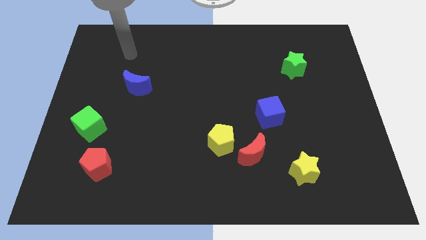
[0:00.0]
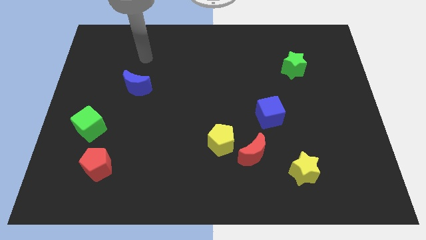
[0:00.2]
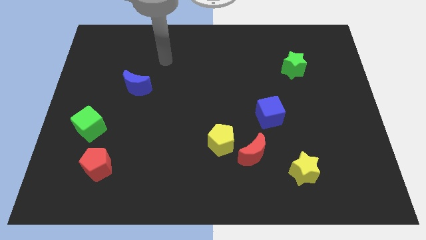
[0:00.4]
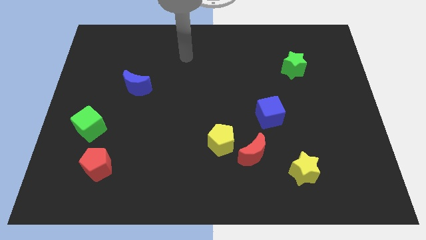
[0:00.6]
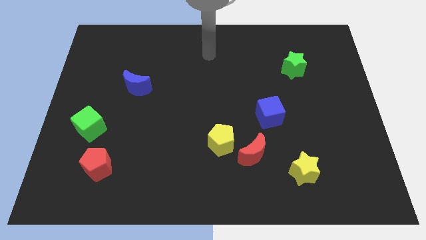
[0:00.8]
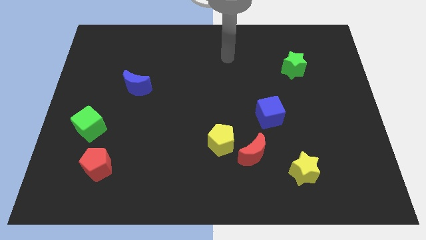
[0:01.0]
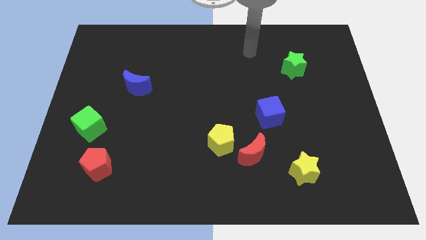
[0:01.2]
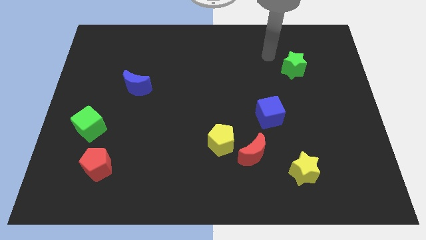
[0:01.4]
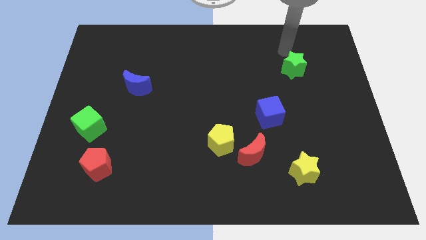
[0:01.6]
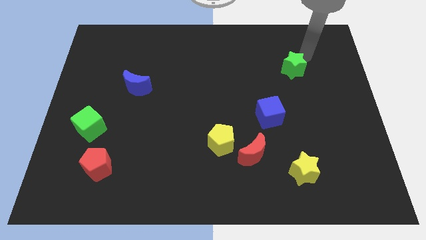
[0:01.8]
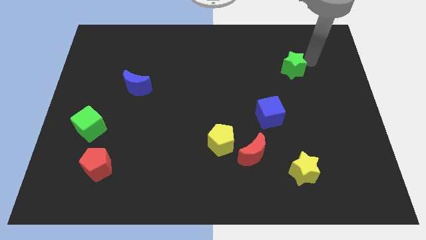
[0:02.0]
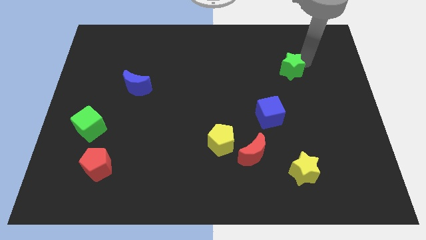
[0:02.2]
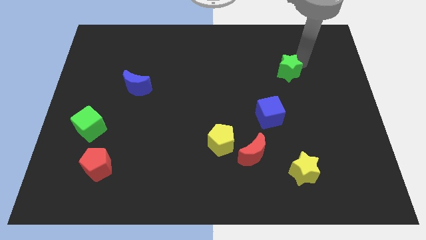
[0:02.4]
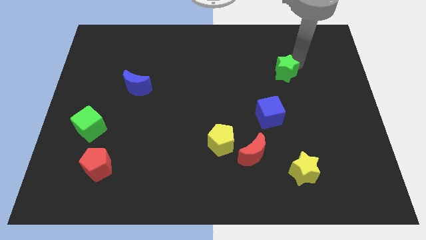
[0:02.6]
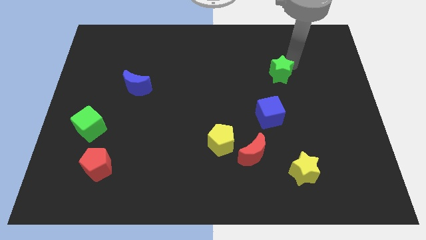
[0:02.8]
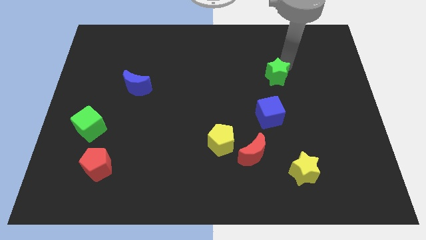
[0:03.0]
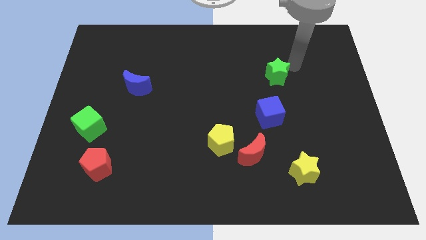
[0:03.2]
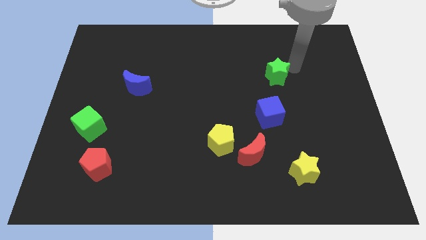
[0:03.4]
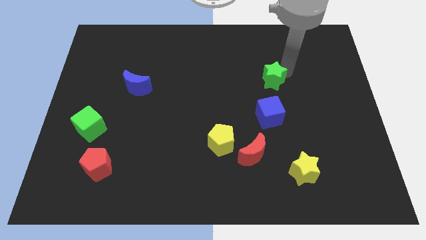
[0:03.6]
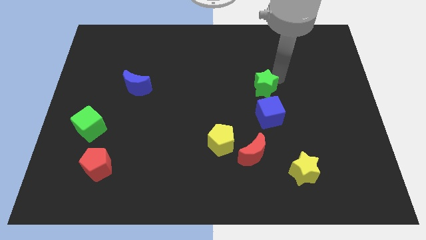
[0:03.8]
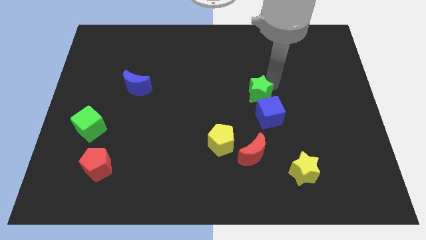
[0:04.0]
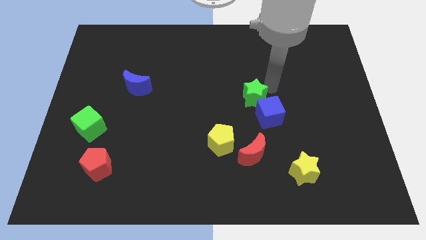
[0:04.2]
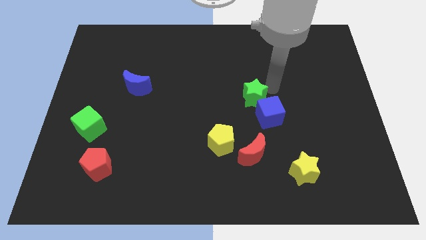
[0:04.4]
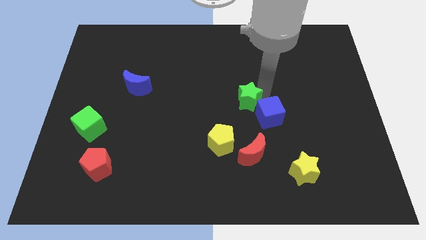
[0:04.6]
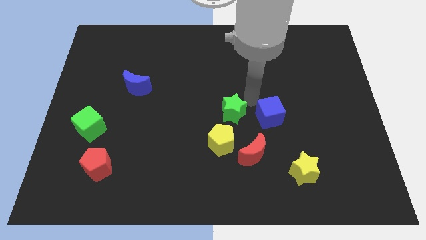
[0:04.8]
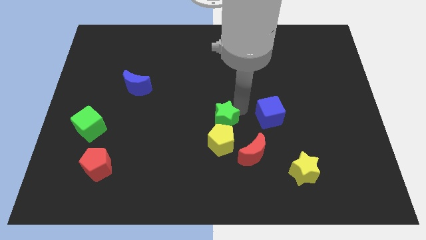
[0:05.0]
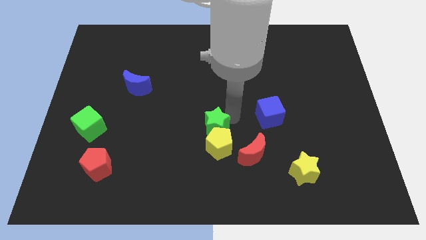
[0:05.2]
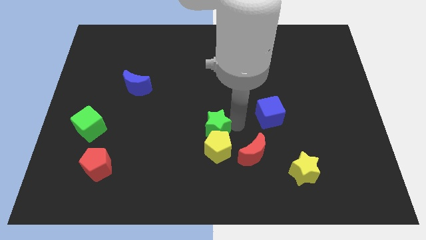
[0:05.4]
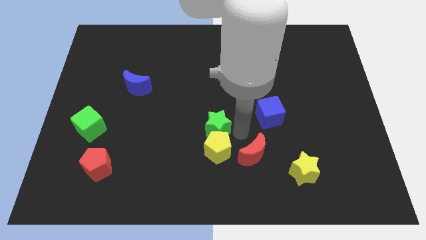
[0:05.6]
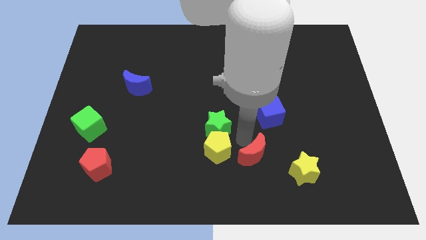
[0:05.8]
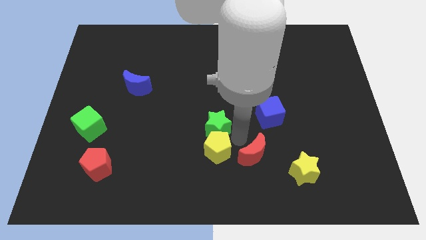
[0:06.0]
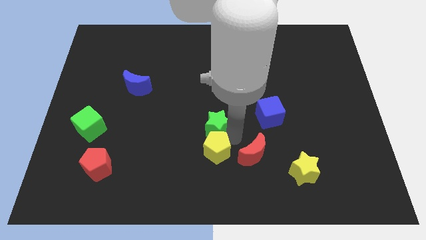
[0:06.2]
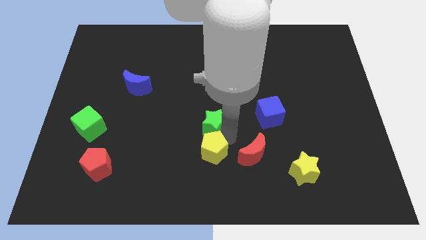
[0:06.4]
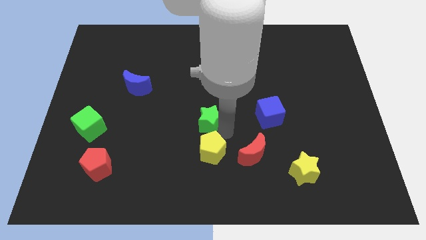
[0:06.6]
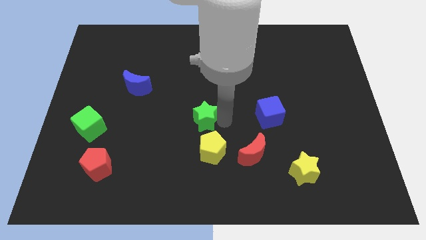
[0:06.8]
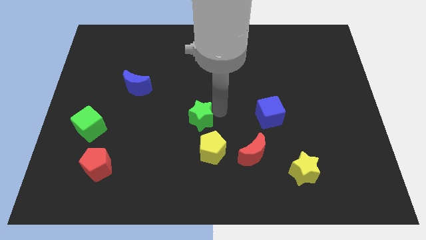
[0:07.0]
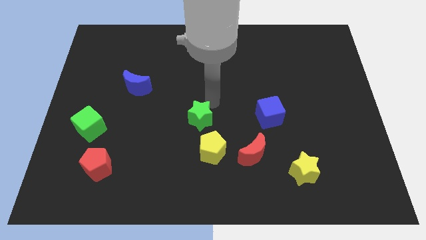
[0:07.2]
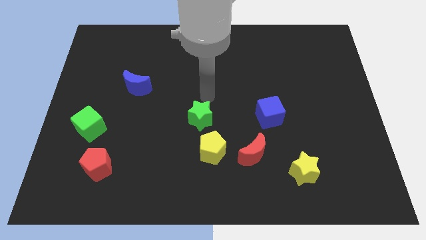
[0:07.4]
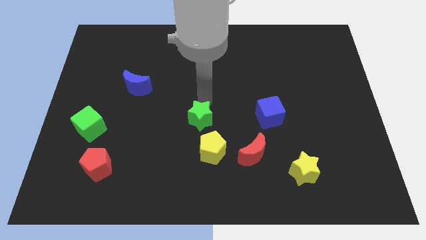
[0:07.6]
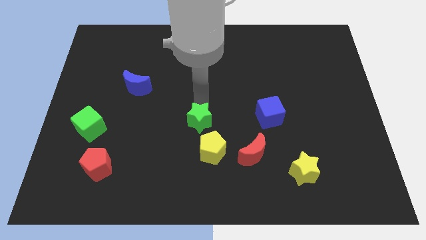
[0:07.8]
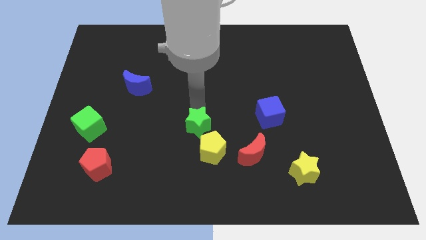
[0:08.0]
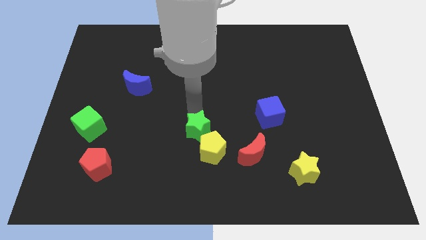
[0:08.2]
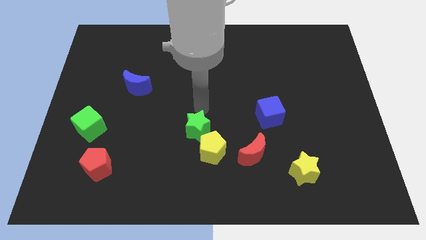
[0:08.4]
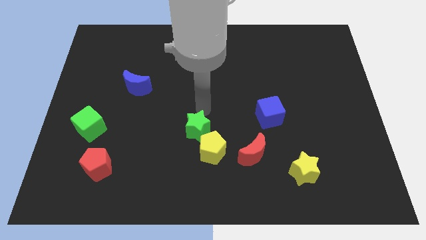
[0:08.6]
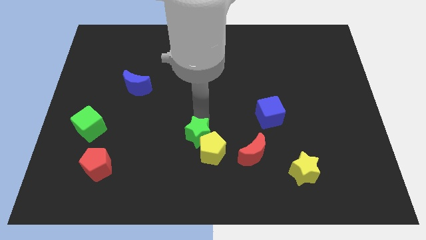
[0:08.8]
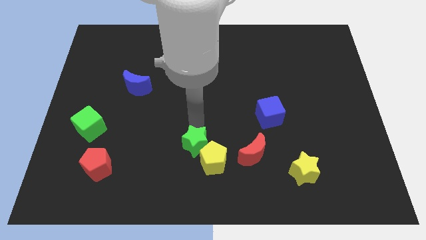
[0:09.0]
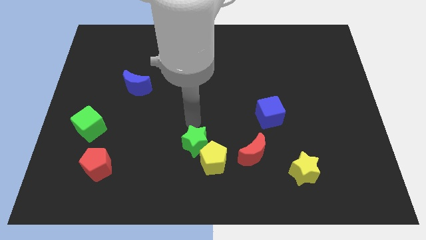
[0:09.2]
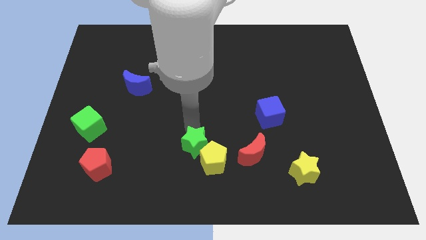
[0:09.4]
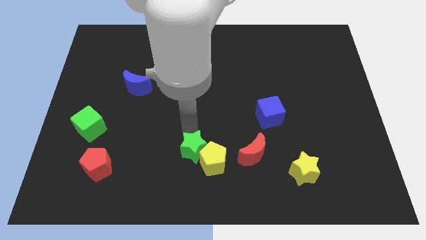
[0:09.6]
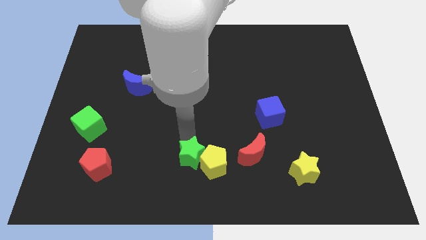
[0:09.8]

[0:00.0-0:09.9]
put the green star to the bottom side

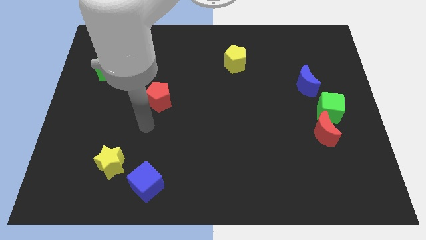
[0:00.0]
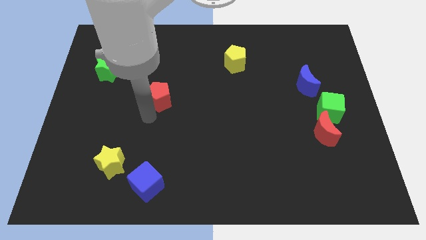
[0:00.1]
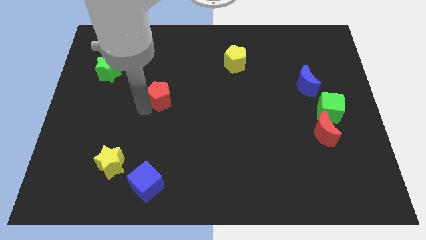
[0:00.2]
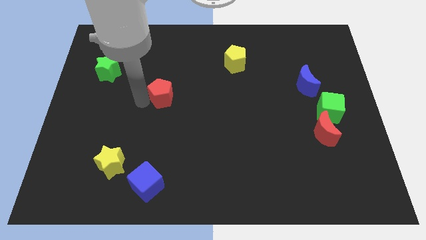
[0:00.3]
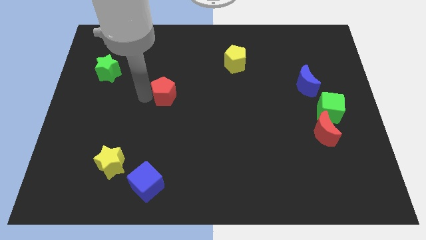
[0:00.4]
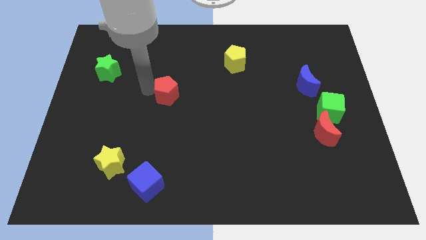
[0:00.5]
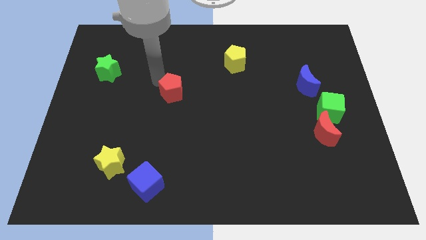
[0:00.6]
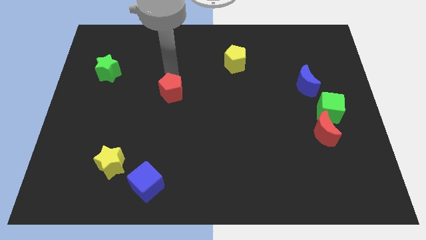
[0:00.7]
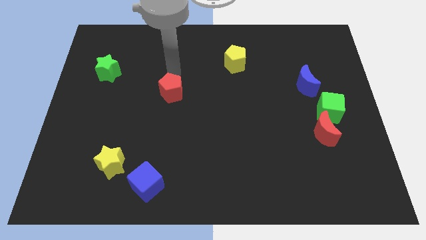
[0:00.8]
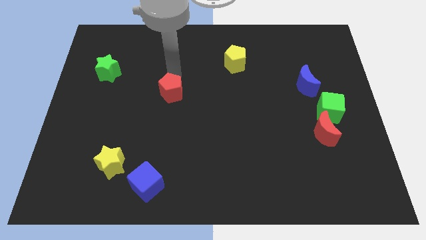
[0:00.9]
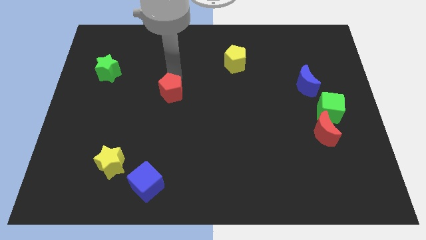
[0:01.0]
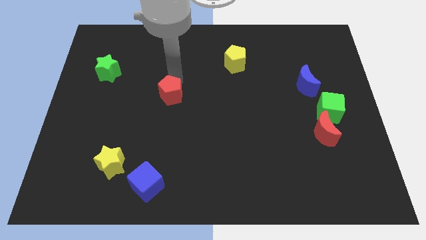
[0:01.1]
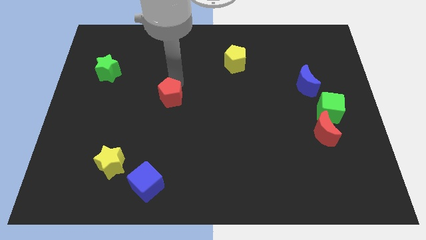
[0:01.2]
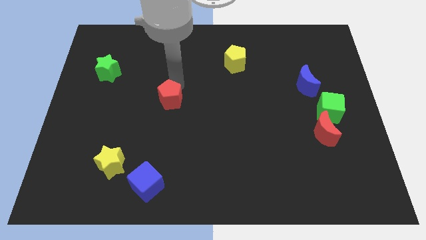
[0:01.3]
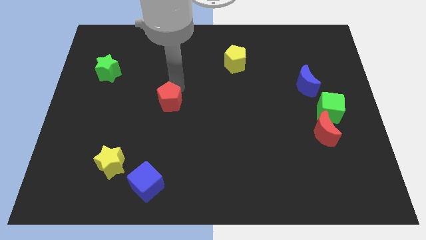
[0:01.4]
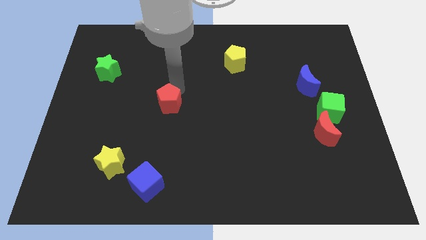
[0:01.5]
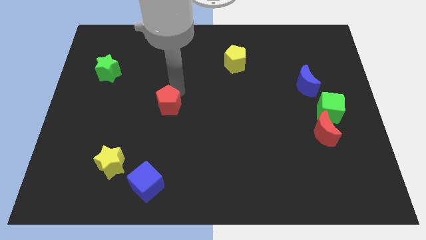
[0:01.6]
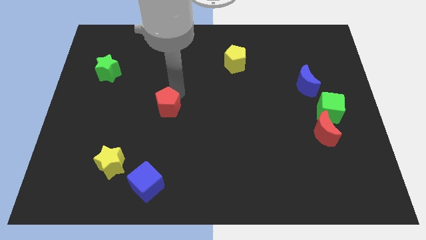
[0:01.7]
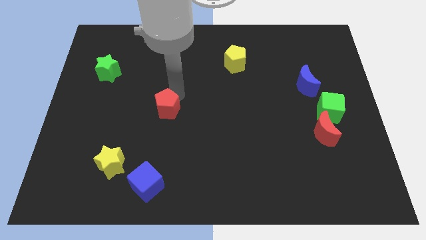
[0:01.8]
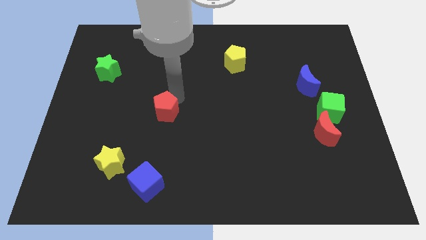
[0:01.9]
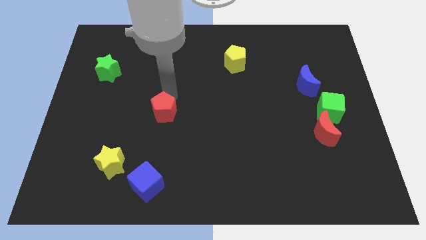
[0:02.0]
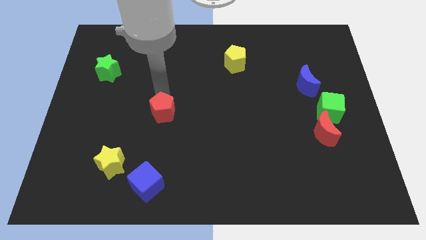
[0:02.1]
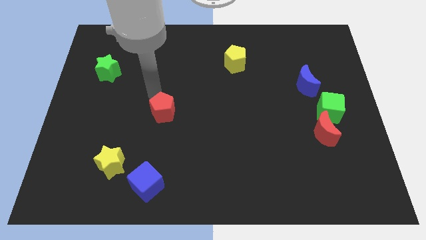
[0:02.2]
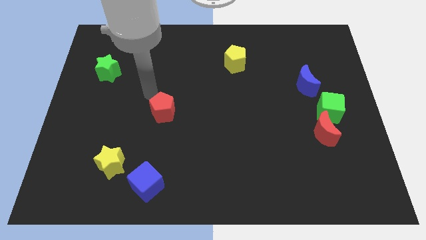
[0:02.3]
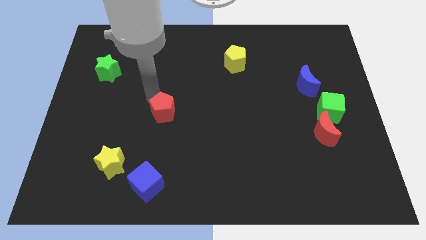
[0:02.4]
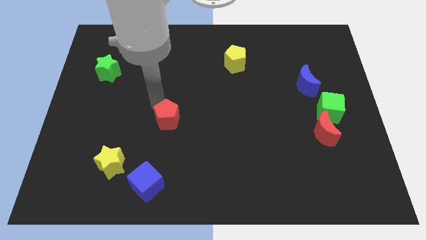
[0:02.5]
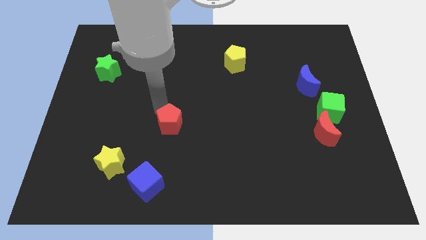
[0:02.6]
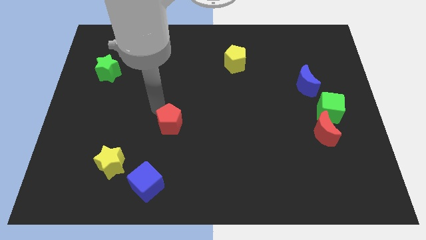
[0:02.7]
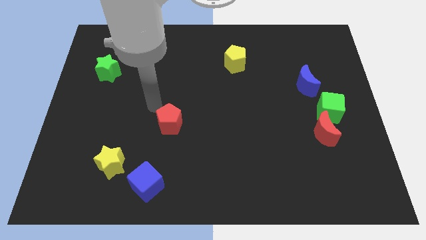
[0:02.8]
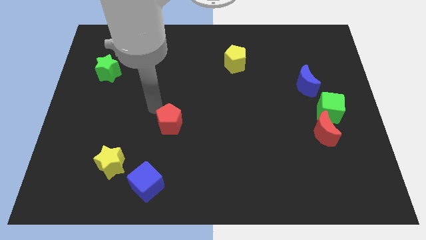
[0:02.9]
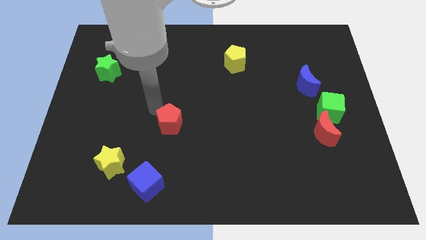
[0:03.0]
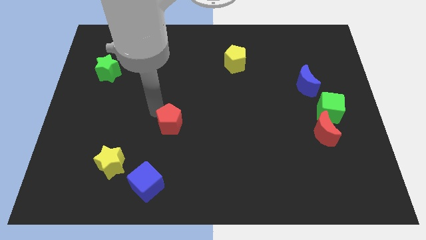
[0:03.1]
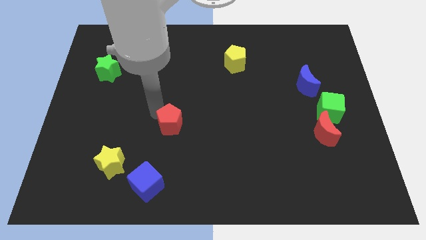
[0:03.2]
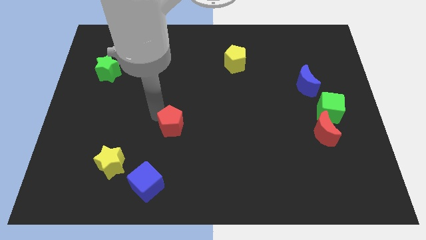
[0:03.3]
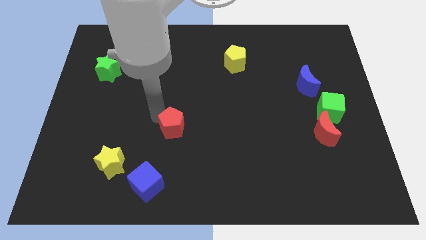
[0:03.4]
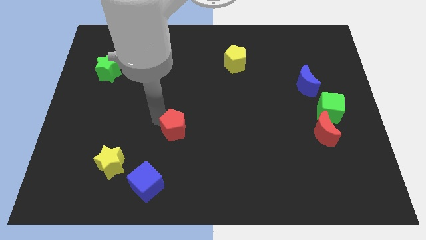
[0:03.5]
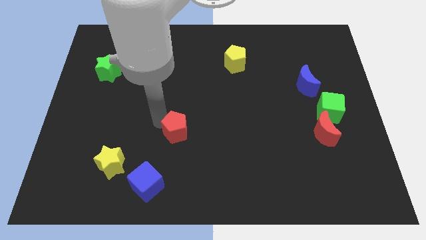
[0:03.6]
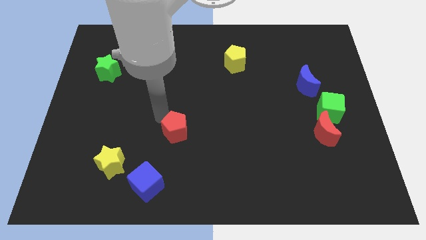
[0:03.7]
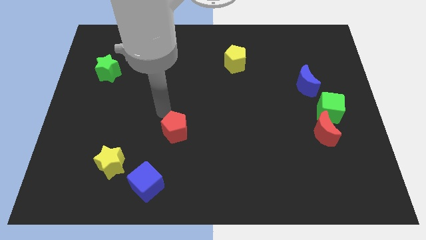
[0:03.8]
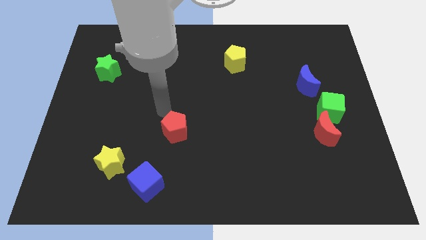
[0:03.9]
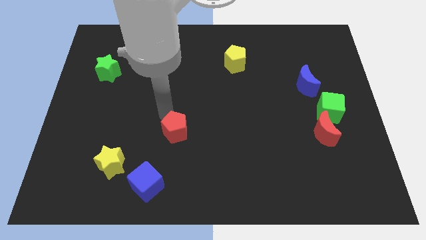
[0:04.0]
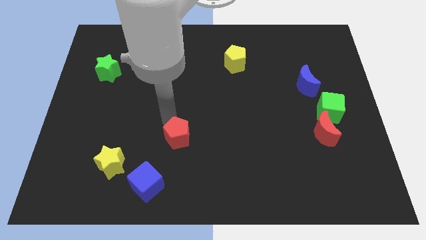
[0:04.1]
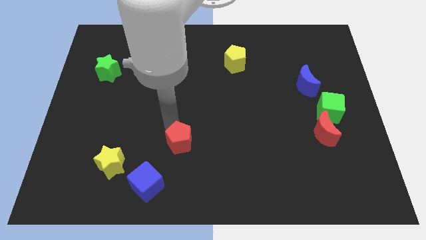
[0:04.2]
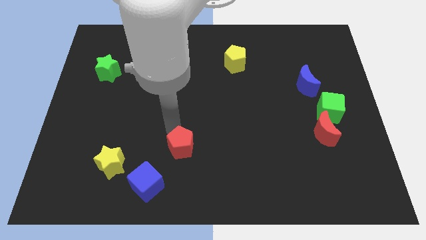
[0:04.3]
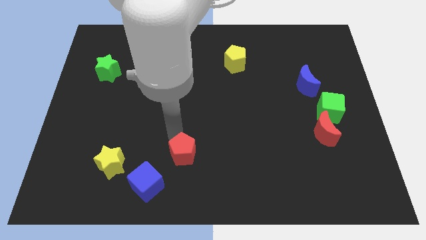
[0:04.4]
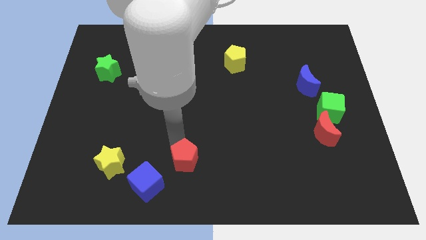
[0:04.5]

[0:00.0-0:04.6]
push the red pentagon to the bottom side
